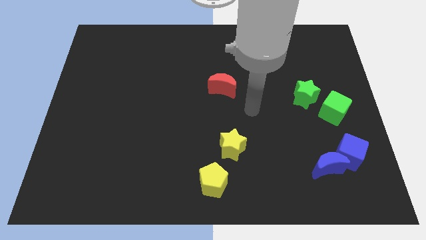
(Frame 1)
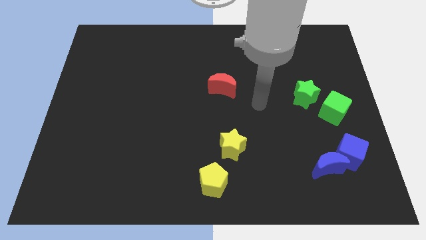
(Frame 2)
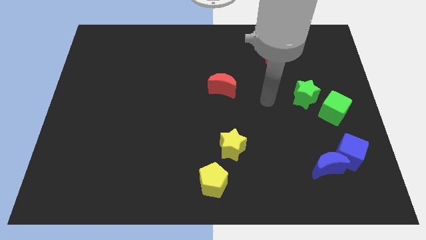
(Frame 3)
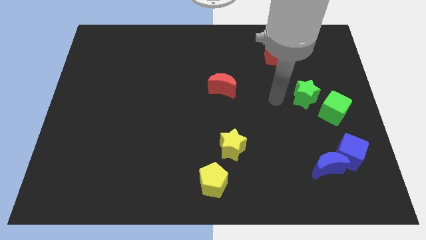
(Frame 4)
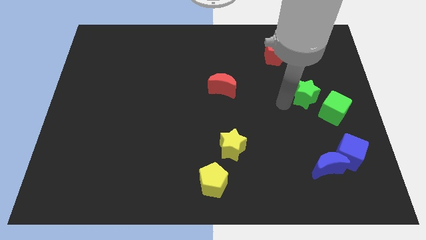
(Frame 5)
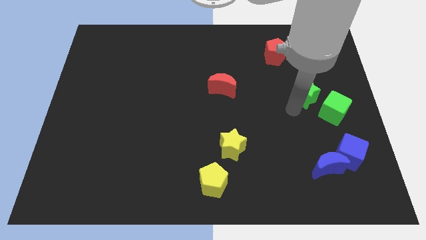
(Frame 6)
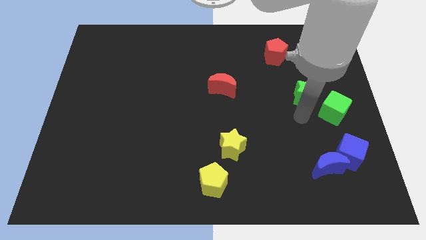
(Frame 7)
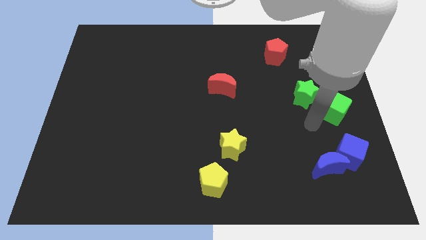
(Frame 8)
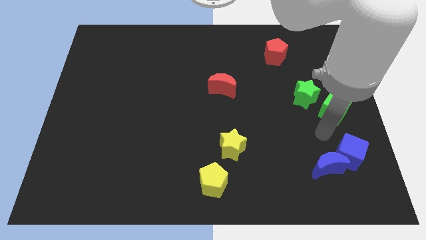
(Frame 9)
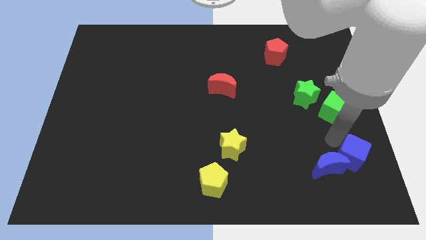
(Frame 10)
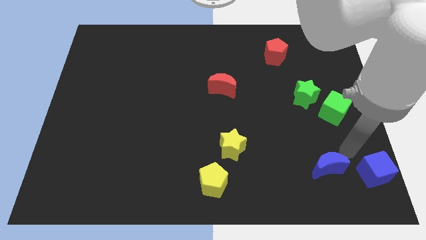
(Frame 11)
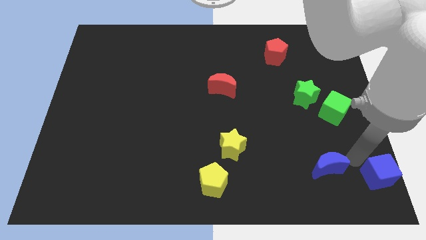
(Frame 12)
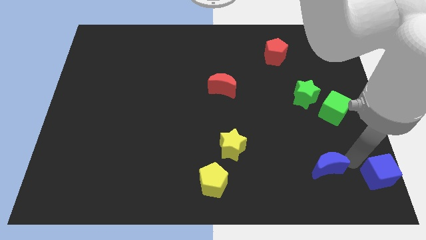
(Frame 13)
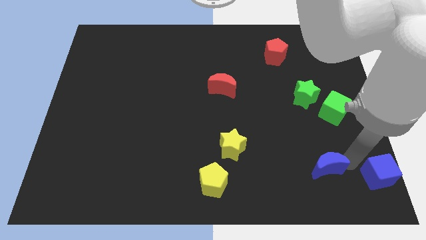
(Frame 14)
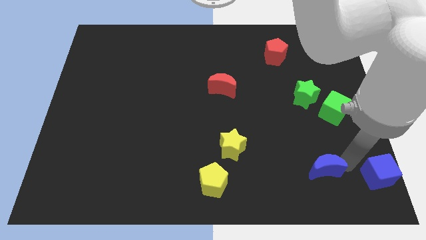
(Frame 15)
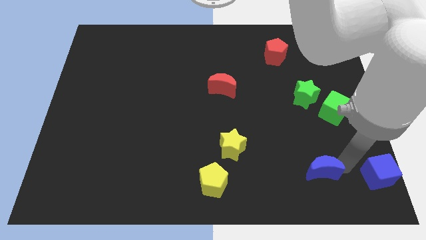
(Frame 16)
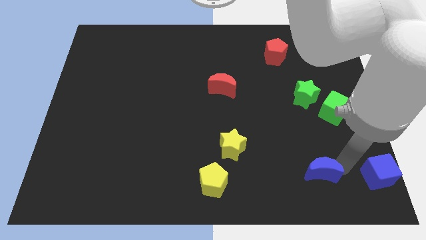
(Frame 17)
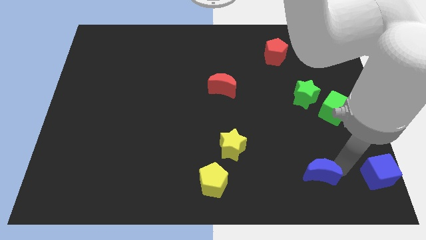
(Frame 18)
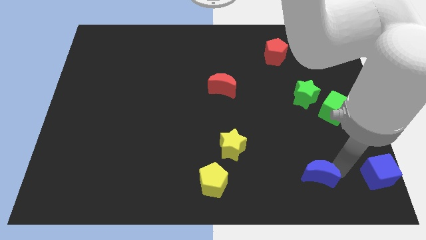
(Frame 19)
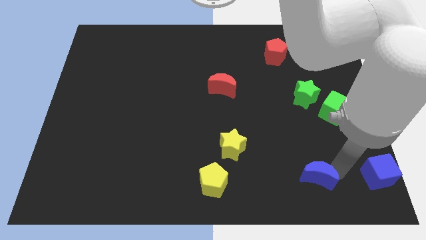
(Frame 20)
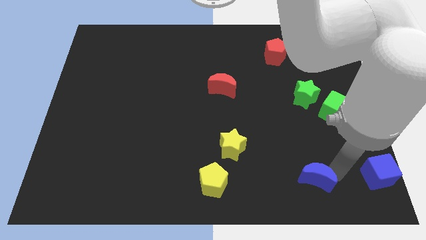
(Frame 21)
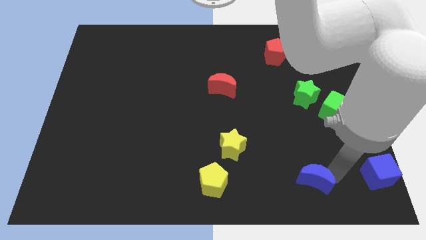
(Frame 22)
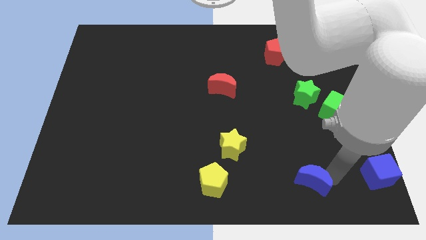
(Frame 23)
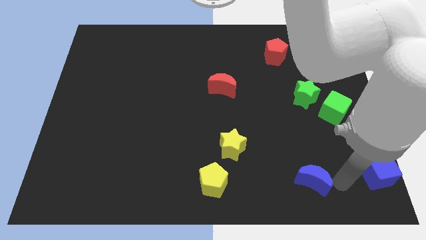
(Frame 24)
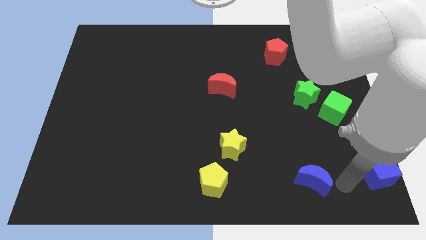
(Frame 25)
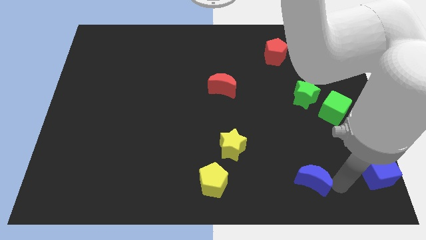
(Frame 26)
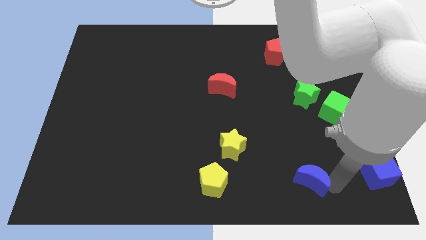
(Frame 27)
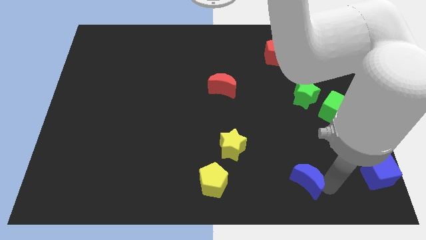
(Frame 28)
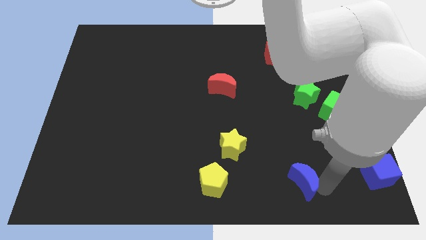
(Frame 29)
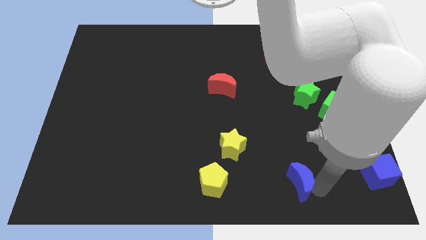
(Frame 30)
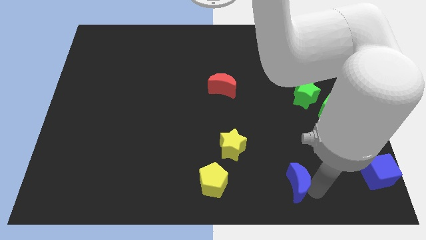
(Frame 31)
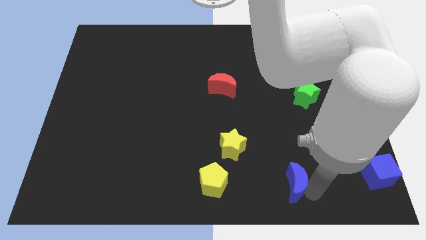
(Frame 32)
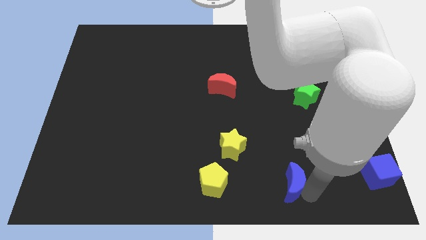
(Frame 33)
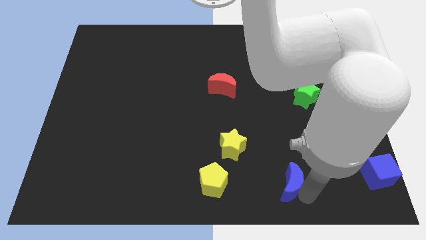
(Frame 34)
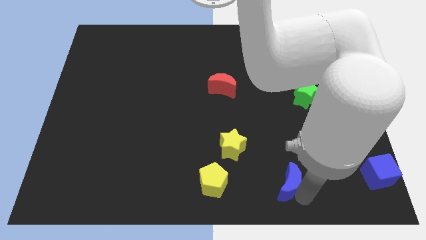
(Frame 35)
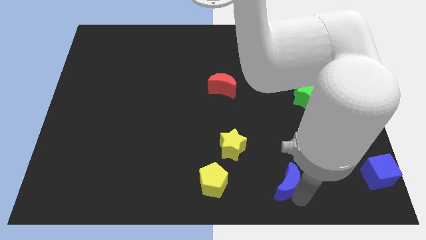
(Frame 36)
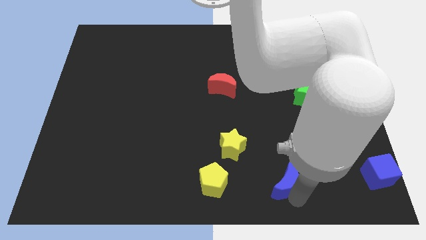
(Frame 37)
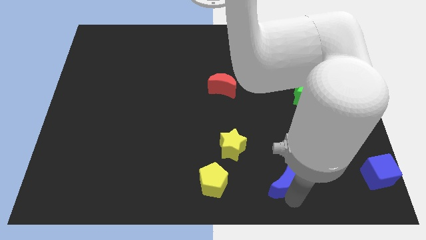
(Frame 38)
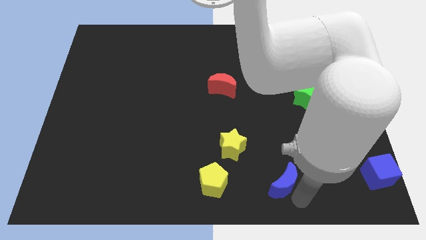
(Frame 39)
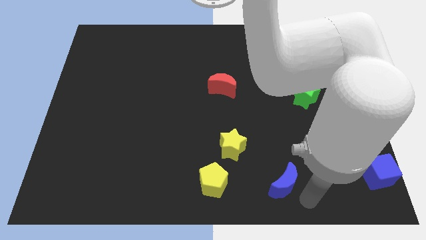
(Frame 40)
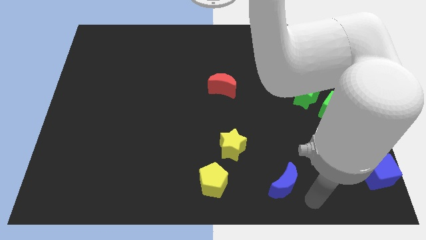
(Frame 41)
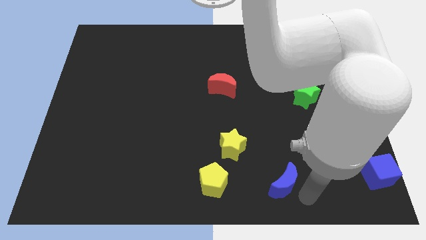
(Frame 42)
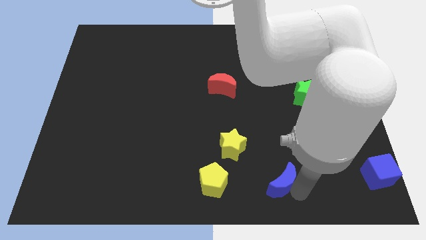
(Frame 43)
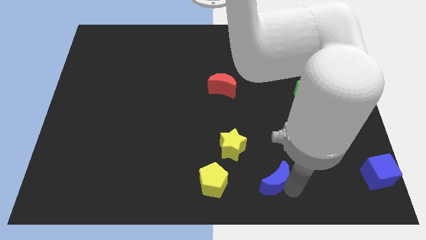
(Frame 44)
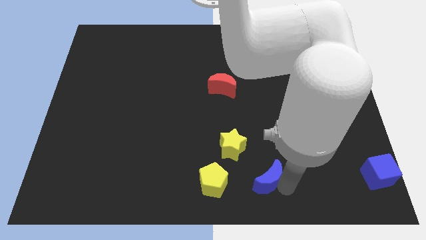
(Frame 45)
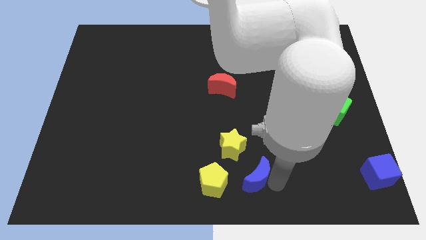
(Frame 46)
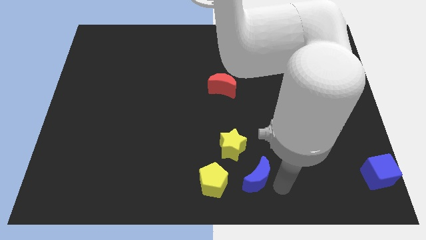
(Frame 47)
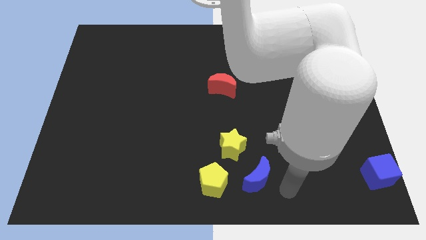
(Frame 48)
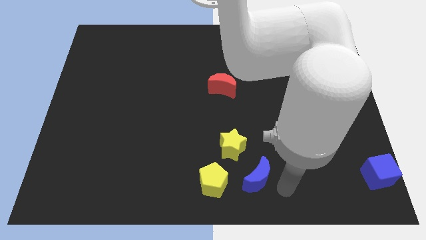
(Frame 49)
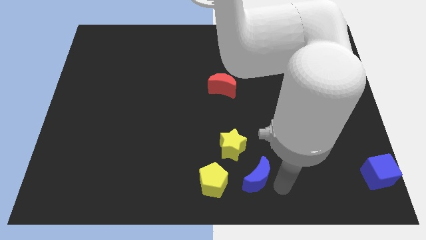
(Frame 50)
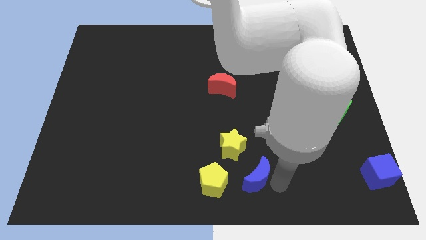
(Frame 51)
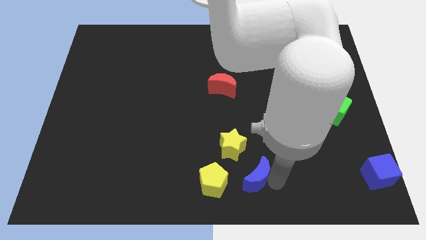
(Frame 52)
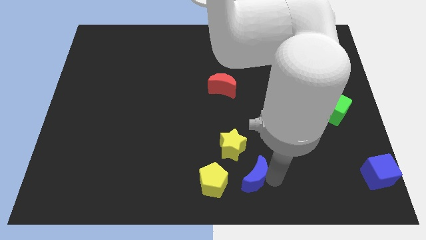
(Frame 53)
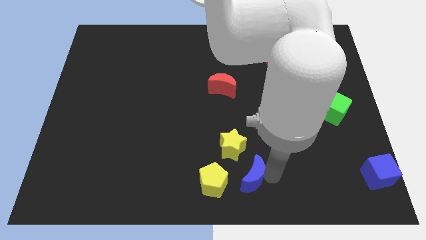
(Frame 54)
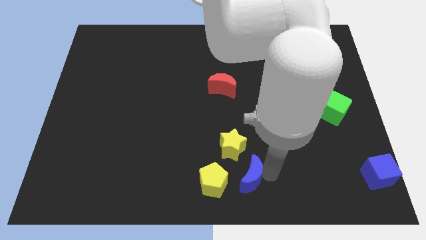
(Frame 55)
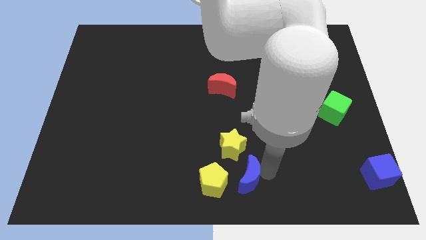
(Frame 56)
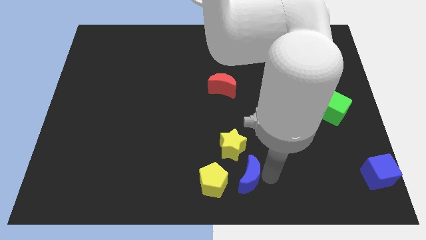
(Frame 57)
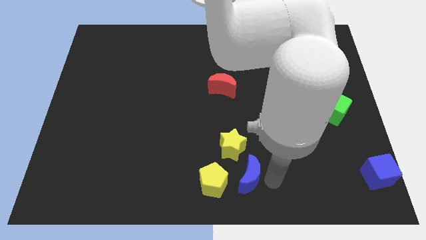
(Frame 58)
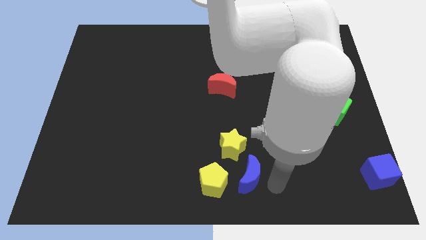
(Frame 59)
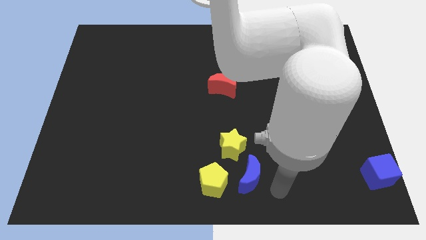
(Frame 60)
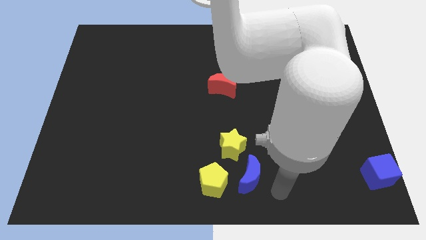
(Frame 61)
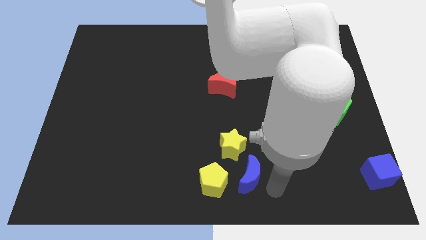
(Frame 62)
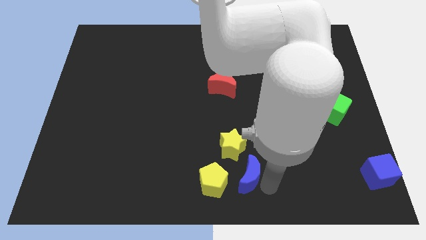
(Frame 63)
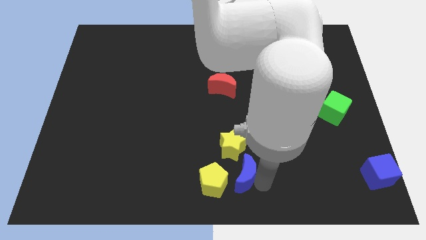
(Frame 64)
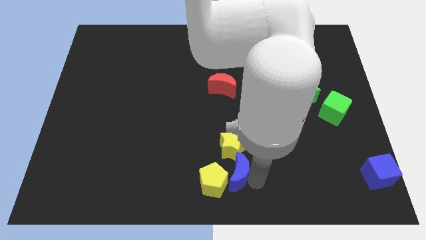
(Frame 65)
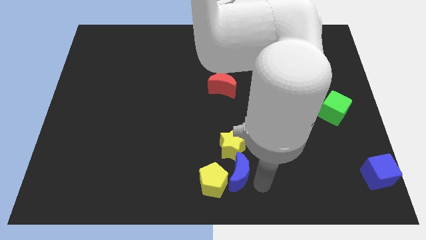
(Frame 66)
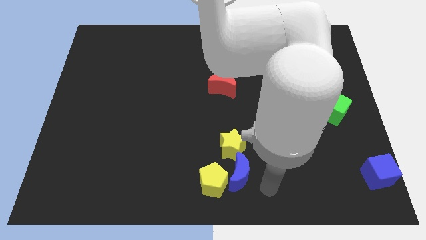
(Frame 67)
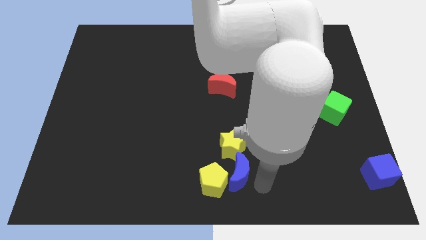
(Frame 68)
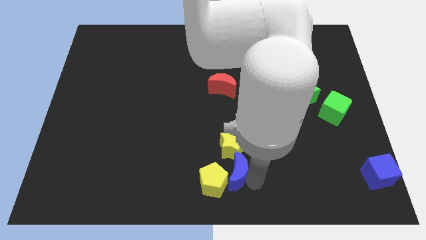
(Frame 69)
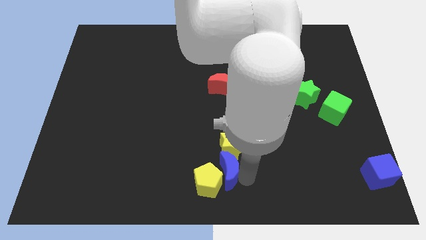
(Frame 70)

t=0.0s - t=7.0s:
slide the blue moon left

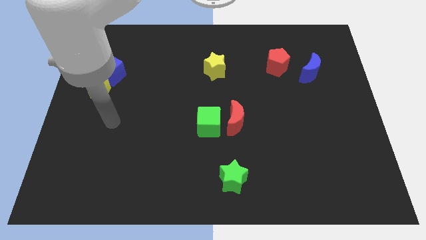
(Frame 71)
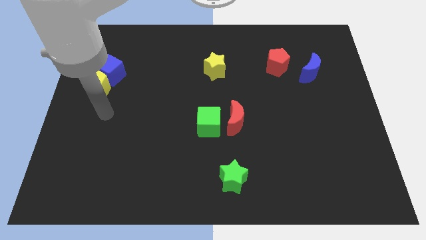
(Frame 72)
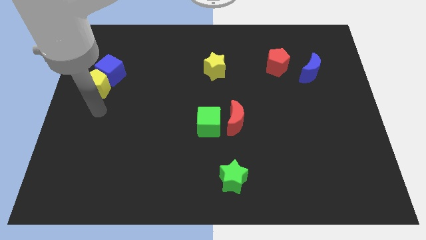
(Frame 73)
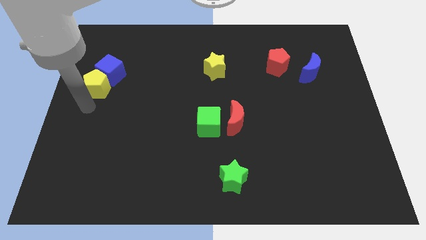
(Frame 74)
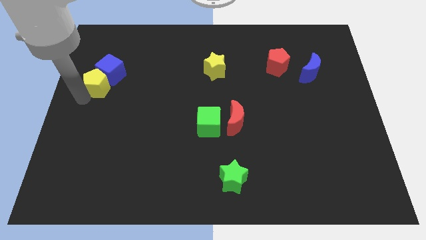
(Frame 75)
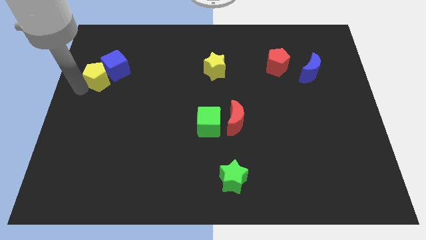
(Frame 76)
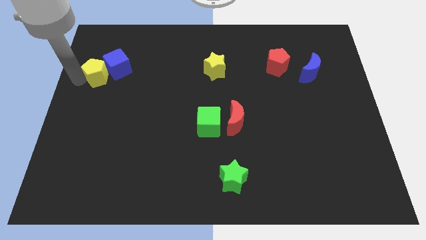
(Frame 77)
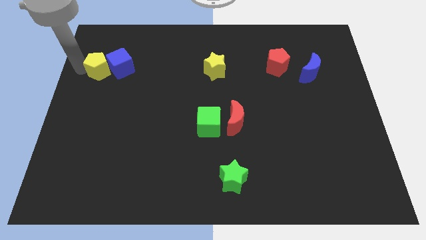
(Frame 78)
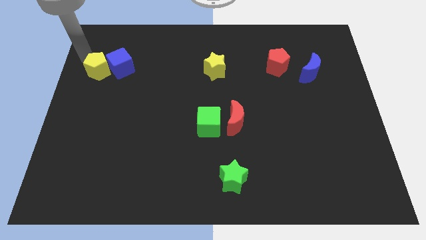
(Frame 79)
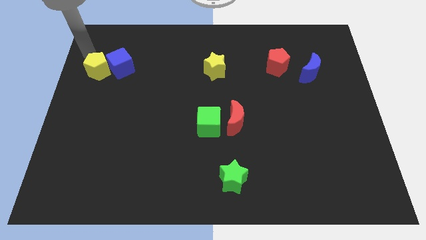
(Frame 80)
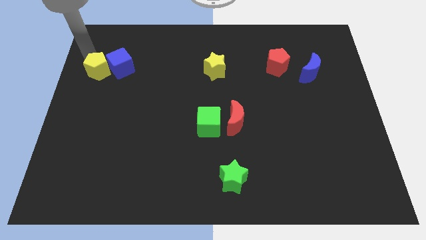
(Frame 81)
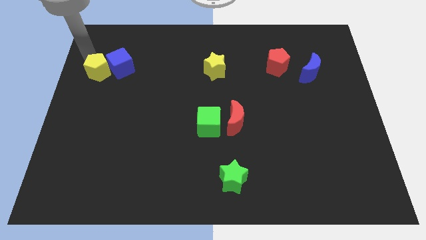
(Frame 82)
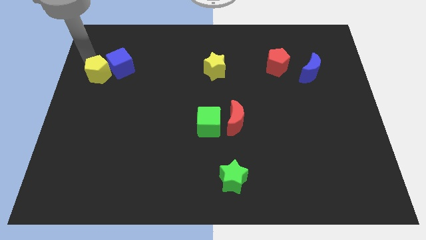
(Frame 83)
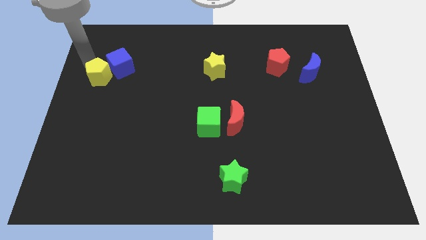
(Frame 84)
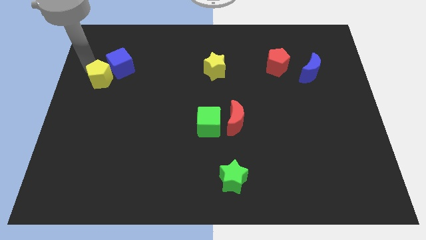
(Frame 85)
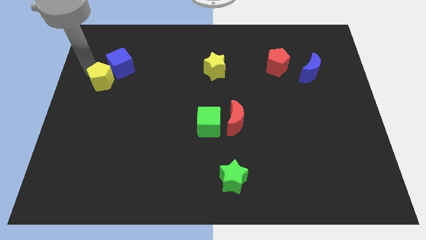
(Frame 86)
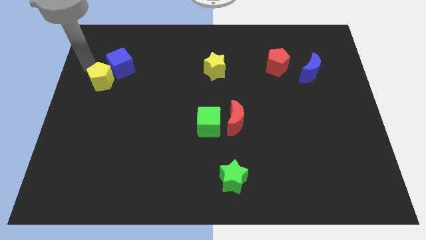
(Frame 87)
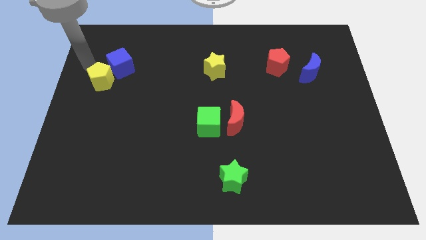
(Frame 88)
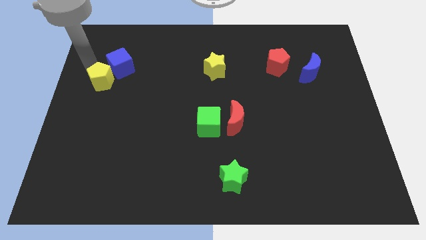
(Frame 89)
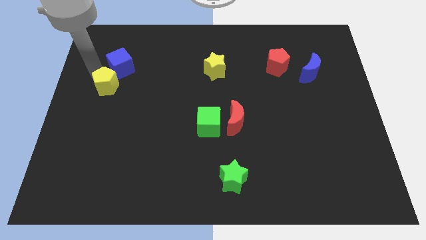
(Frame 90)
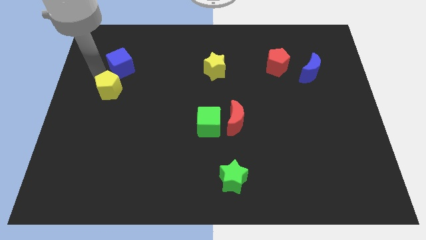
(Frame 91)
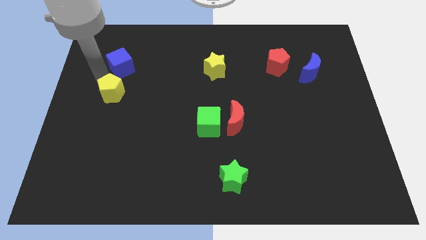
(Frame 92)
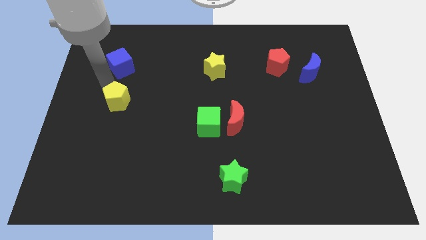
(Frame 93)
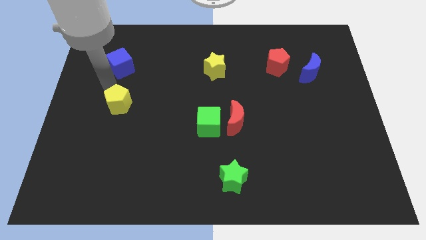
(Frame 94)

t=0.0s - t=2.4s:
slightly slide the yellow pentagon diagonally down and right
